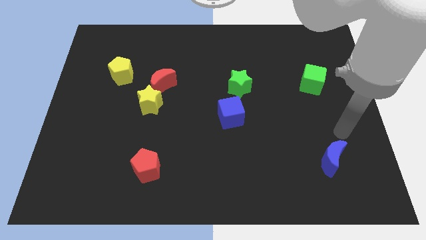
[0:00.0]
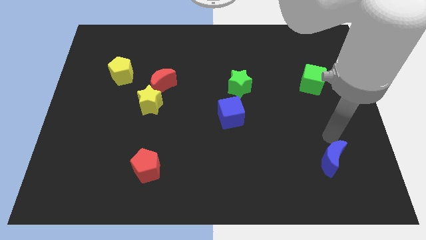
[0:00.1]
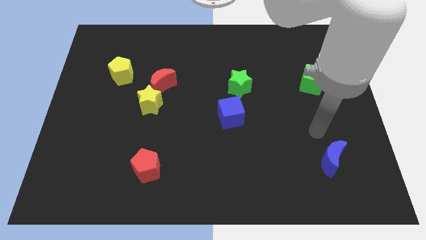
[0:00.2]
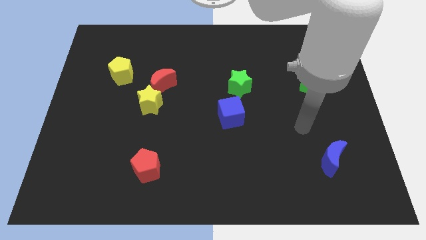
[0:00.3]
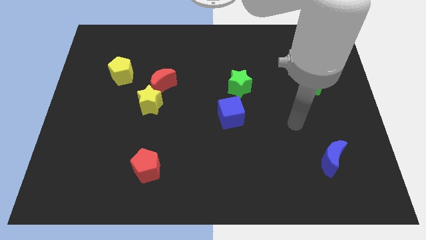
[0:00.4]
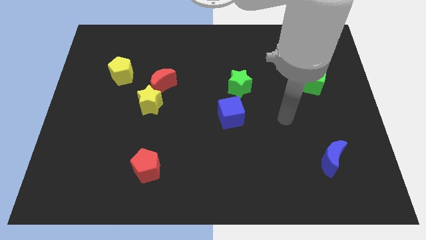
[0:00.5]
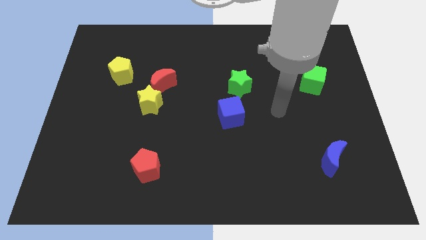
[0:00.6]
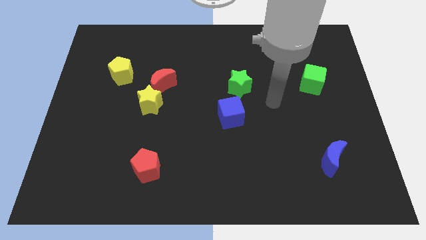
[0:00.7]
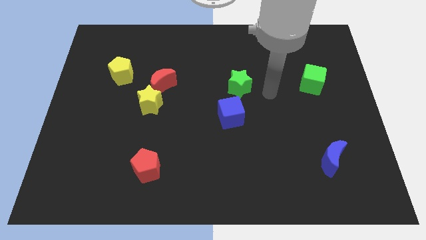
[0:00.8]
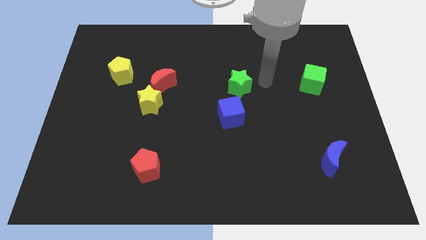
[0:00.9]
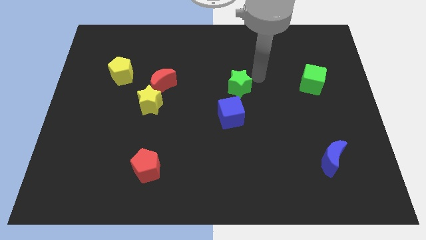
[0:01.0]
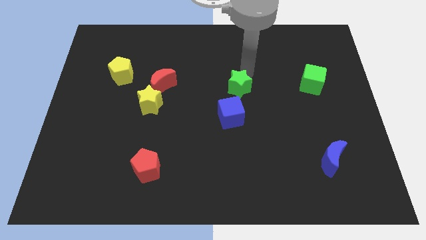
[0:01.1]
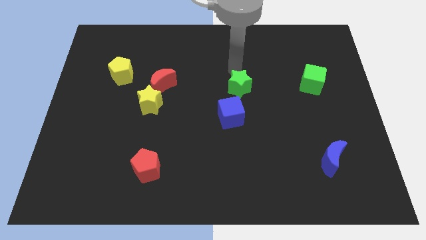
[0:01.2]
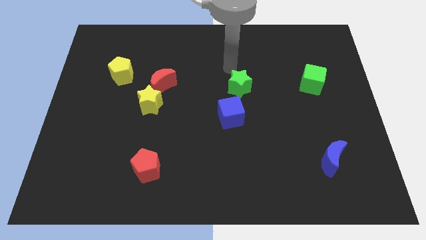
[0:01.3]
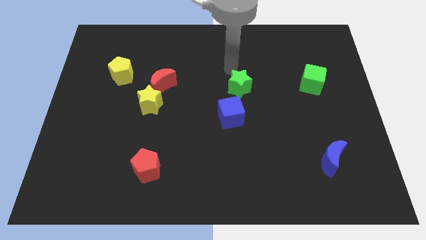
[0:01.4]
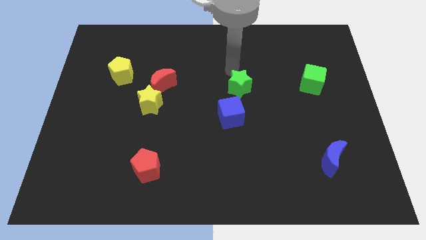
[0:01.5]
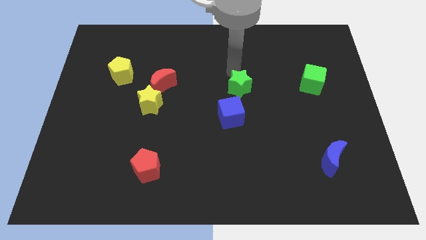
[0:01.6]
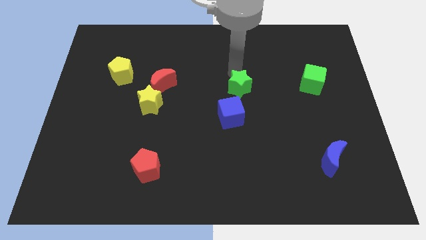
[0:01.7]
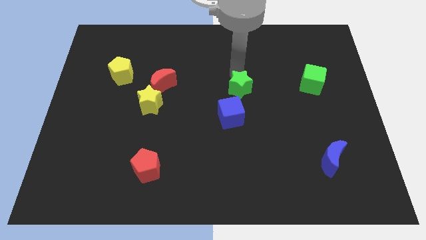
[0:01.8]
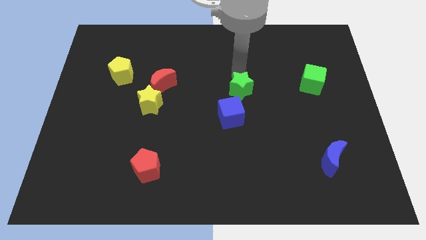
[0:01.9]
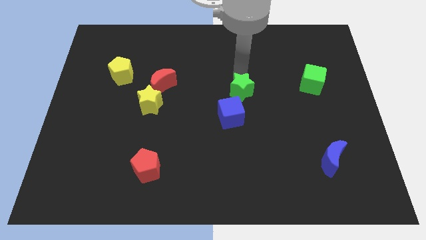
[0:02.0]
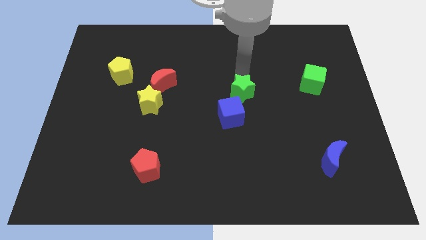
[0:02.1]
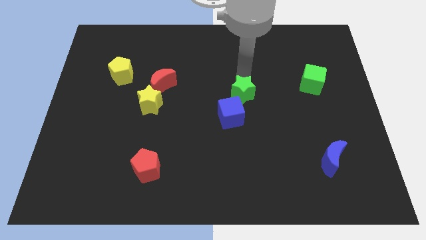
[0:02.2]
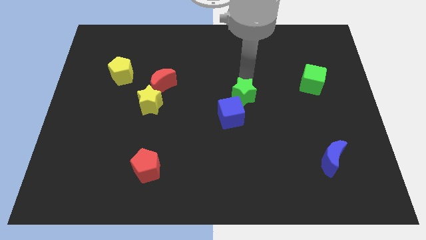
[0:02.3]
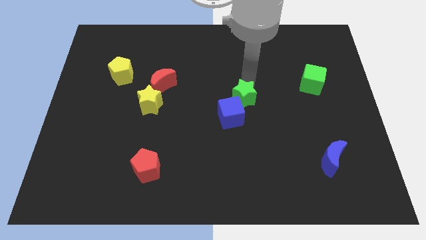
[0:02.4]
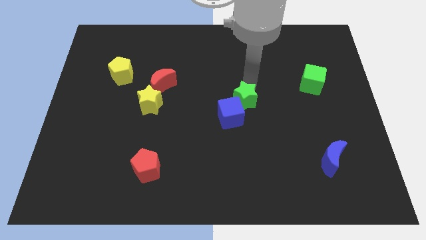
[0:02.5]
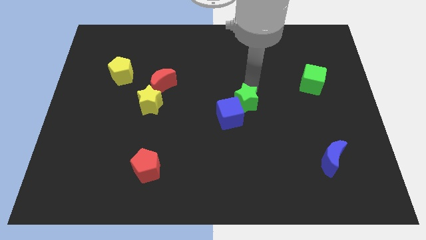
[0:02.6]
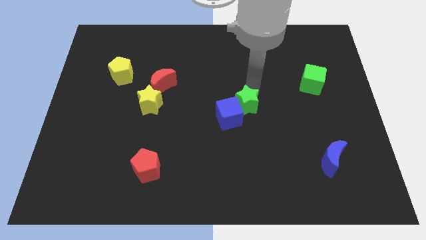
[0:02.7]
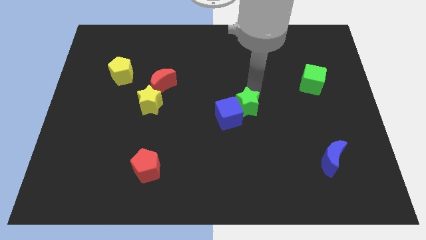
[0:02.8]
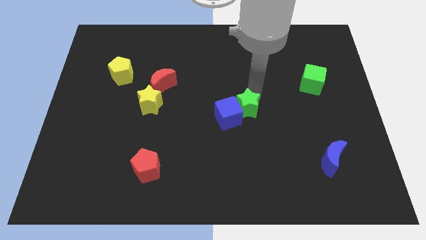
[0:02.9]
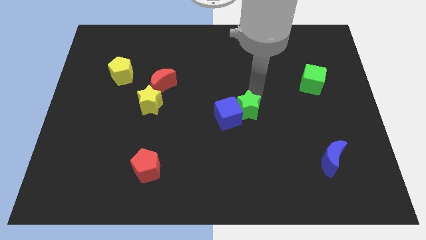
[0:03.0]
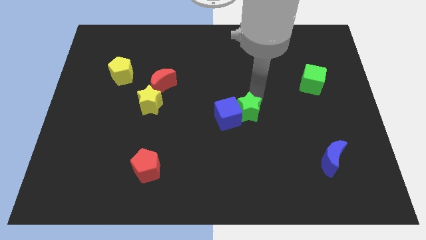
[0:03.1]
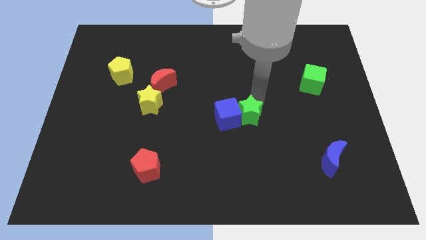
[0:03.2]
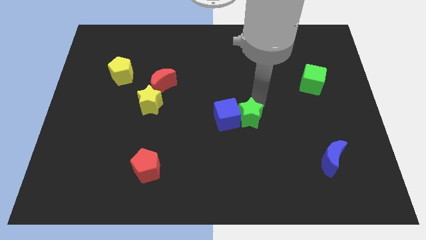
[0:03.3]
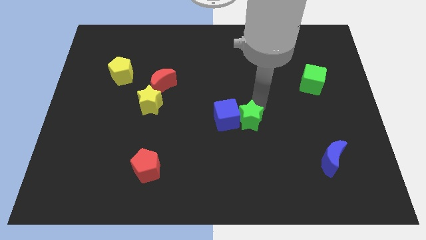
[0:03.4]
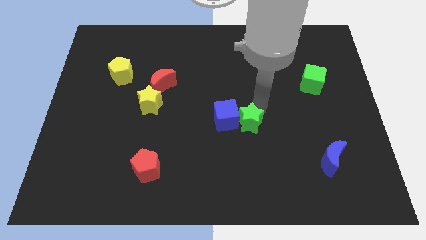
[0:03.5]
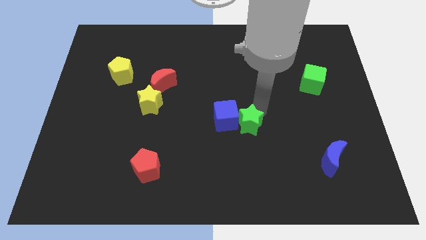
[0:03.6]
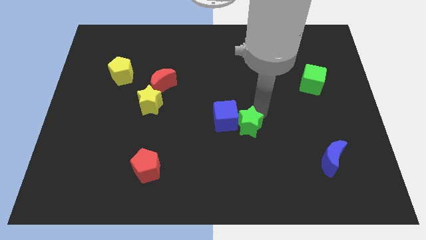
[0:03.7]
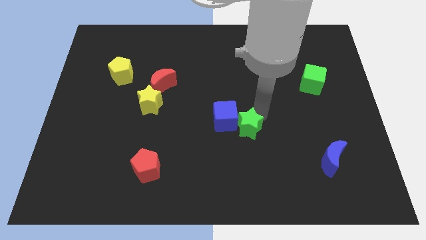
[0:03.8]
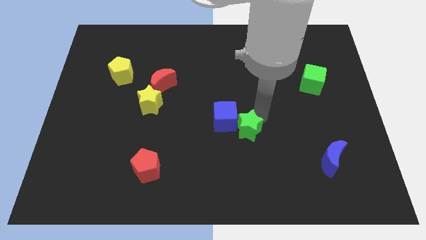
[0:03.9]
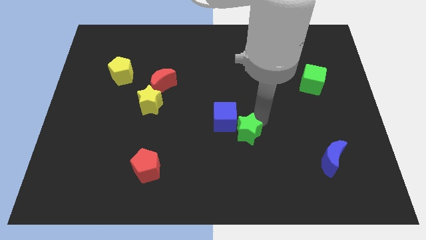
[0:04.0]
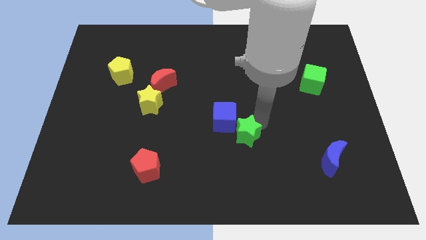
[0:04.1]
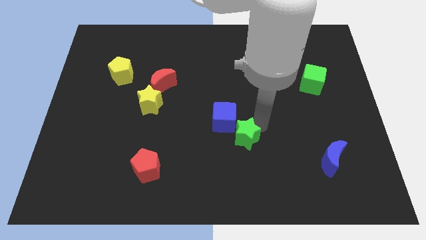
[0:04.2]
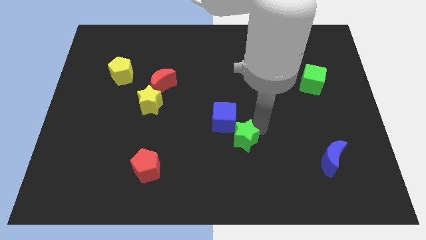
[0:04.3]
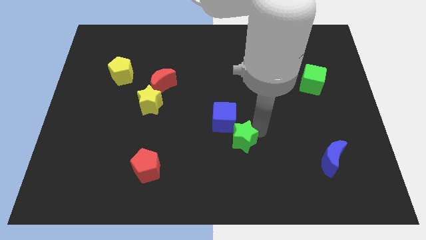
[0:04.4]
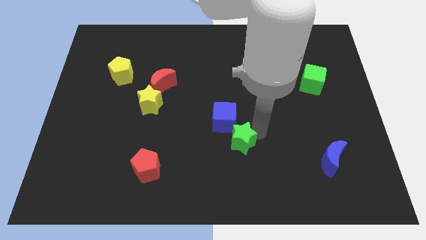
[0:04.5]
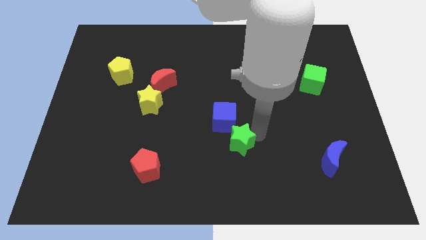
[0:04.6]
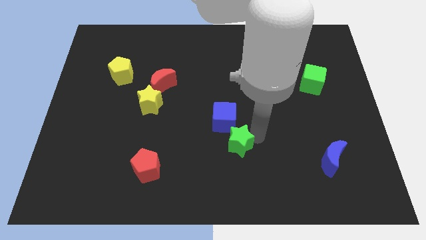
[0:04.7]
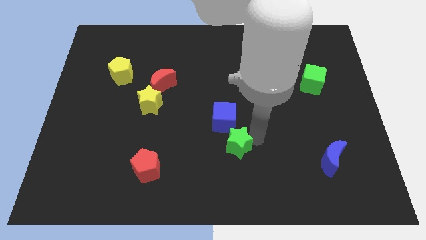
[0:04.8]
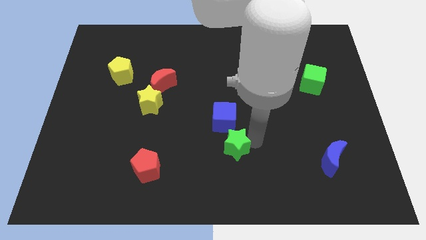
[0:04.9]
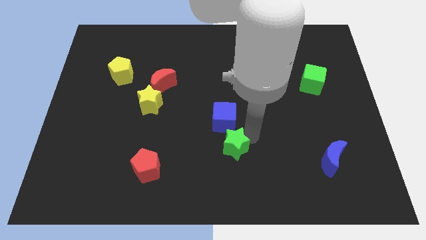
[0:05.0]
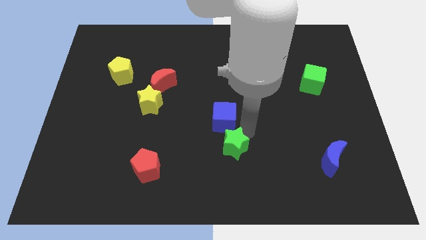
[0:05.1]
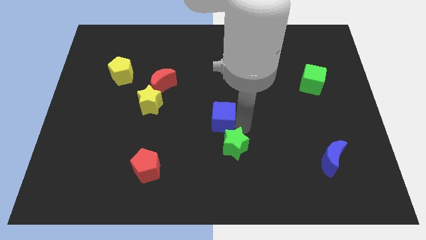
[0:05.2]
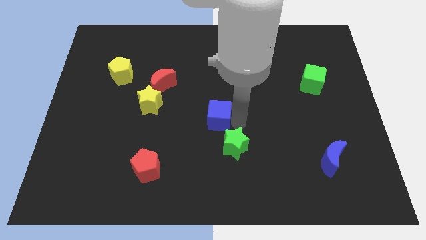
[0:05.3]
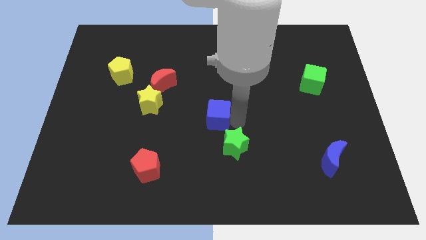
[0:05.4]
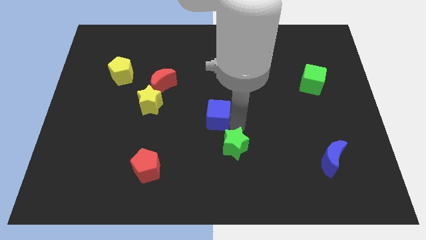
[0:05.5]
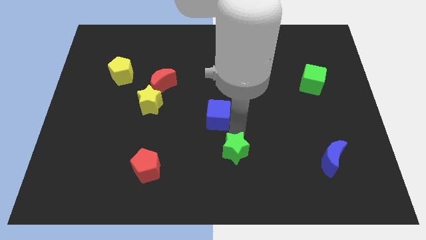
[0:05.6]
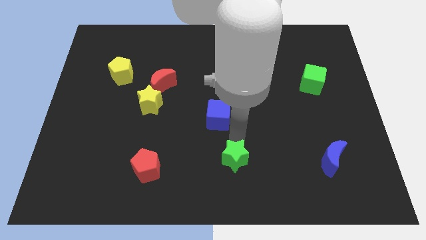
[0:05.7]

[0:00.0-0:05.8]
push the green star to the bottom

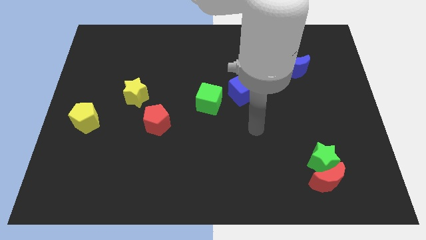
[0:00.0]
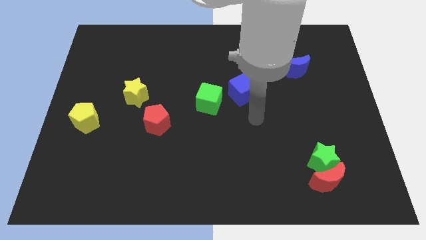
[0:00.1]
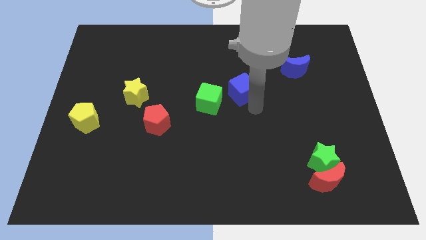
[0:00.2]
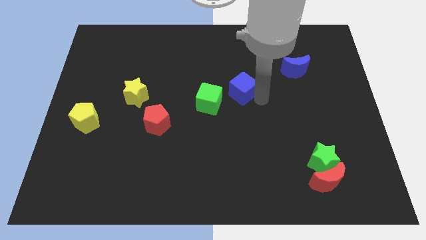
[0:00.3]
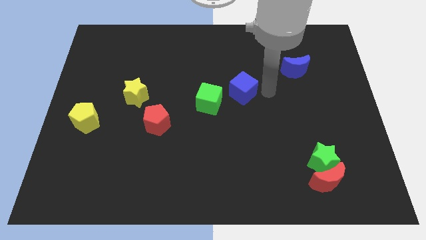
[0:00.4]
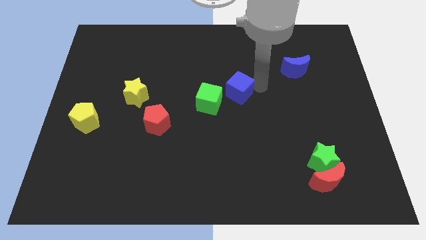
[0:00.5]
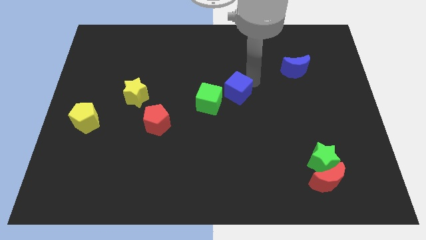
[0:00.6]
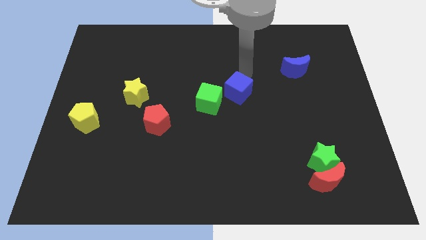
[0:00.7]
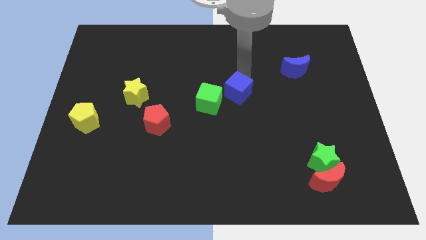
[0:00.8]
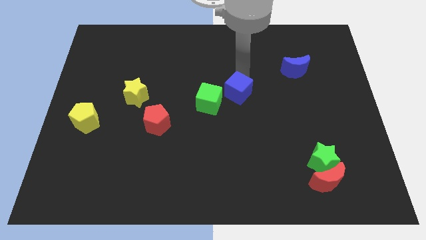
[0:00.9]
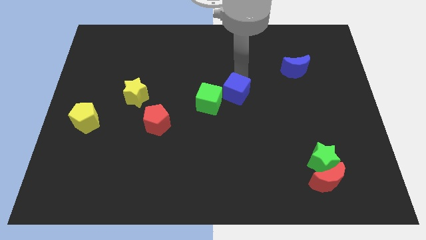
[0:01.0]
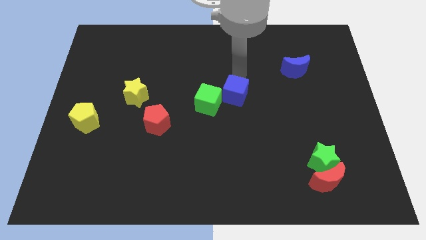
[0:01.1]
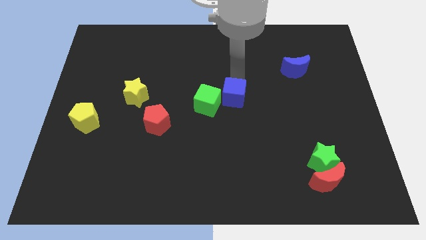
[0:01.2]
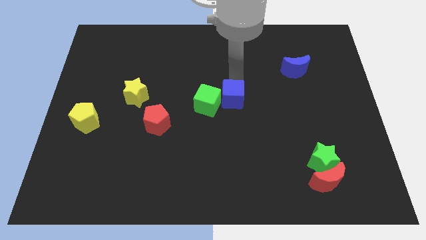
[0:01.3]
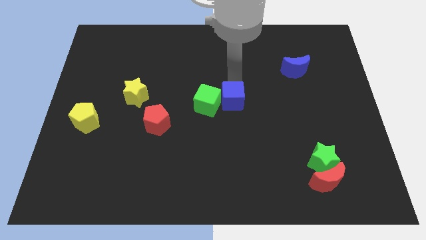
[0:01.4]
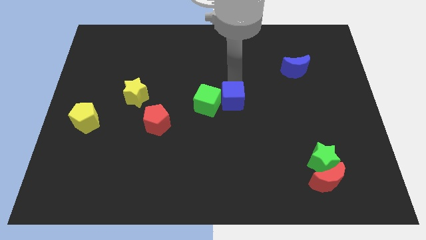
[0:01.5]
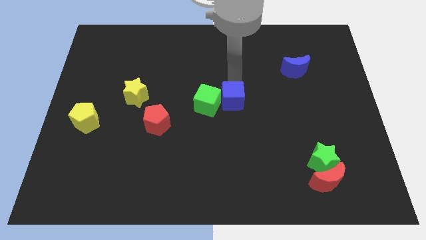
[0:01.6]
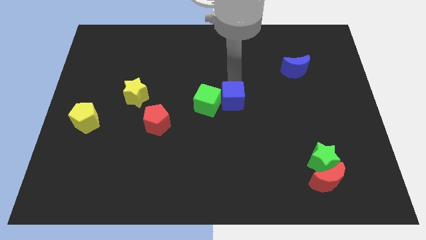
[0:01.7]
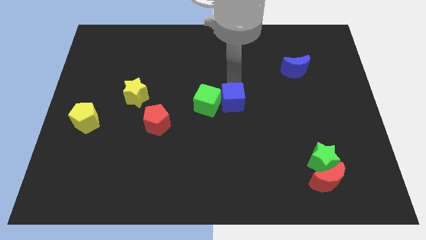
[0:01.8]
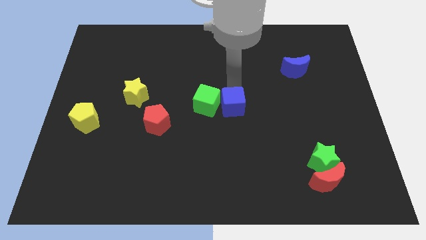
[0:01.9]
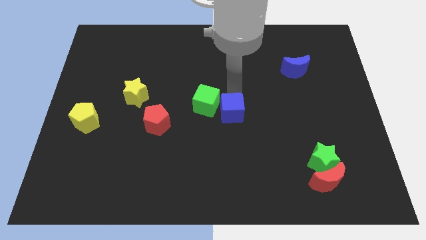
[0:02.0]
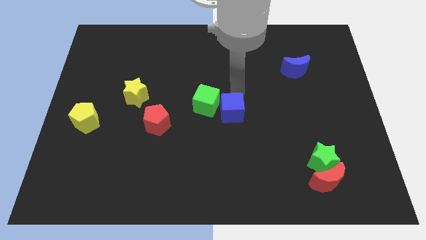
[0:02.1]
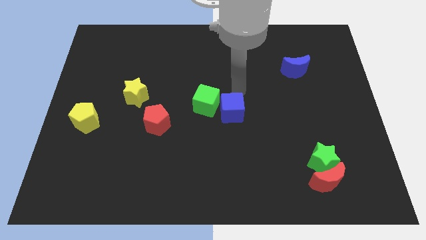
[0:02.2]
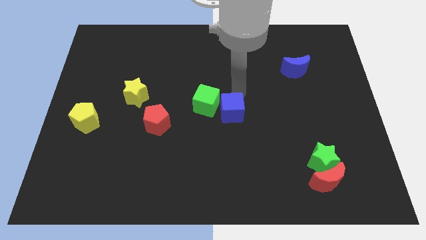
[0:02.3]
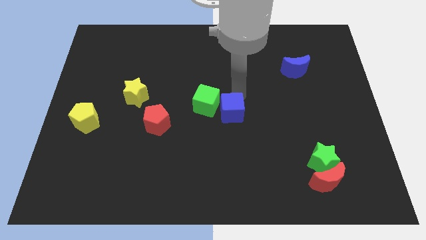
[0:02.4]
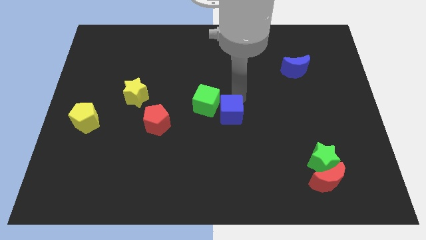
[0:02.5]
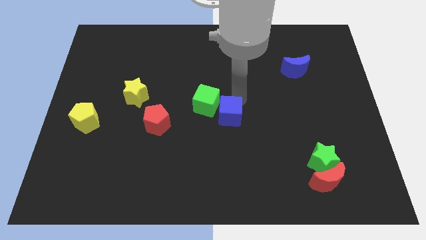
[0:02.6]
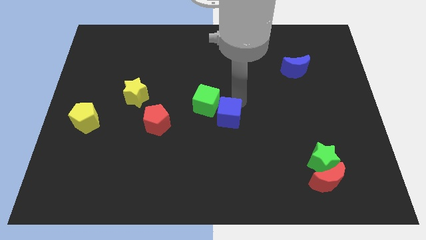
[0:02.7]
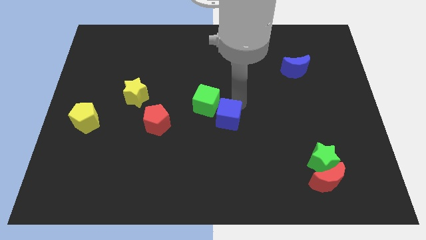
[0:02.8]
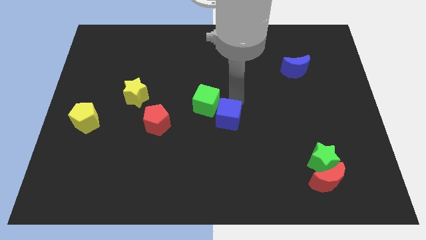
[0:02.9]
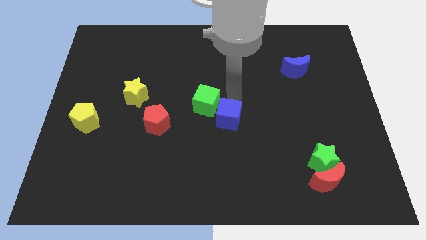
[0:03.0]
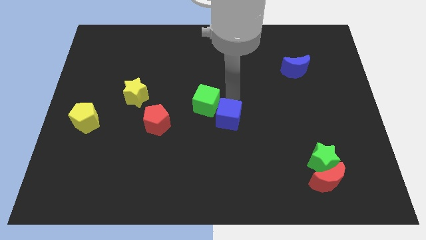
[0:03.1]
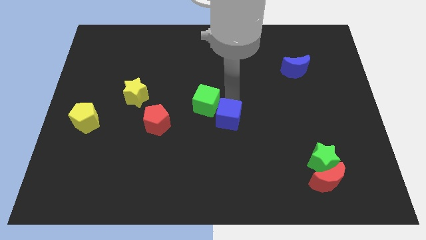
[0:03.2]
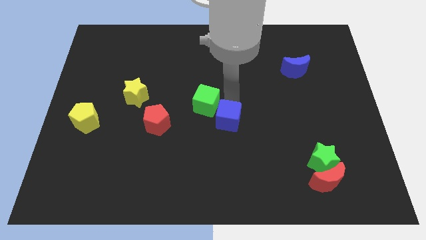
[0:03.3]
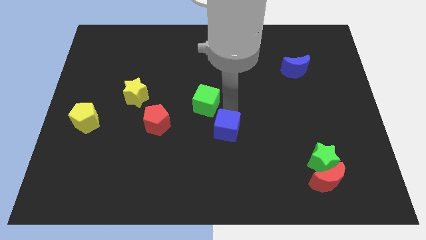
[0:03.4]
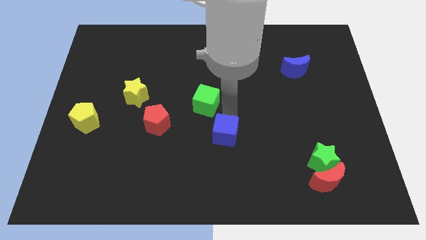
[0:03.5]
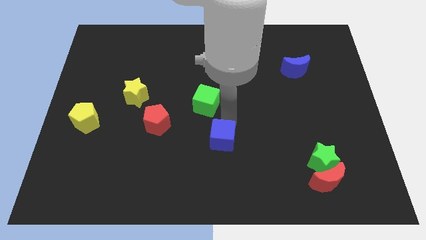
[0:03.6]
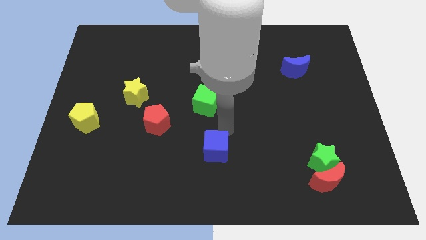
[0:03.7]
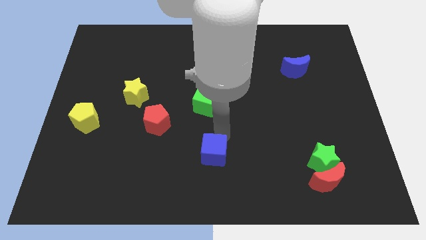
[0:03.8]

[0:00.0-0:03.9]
slide the blue cube to the bottom
